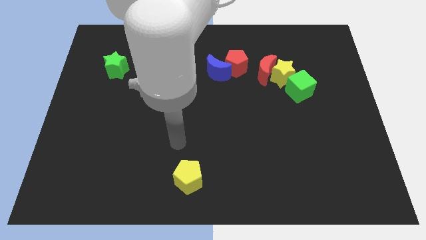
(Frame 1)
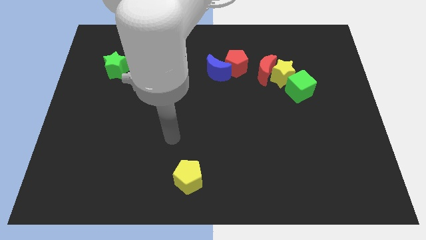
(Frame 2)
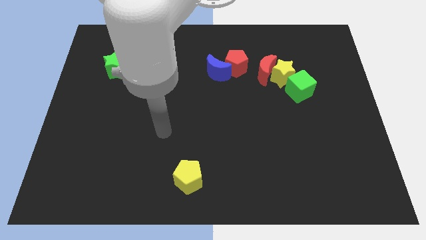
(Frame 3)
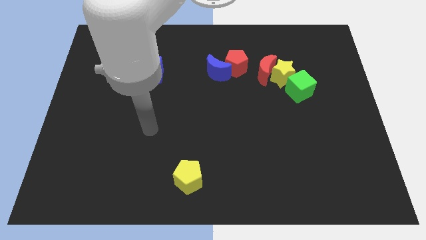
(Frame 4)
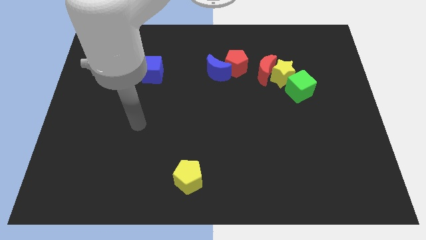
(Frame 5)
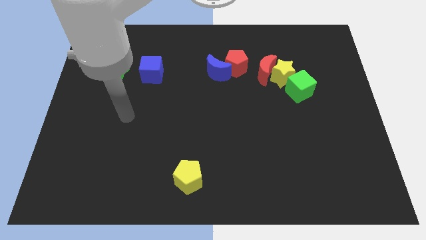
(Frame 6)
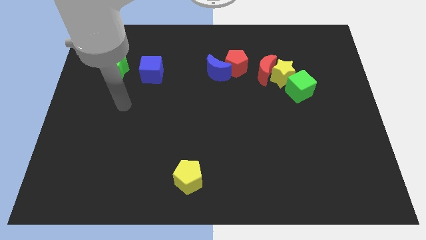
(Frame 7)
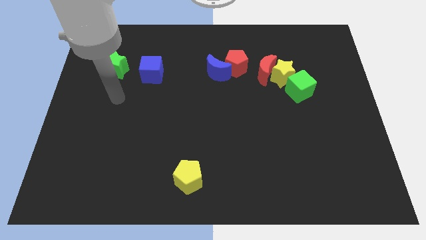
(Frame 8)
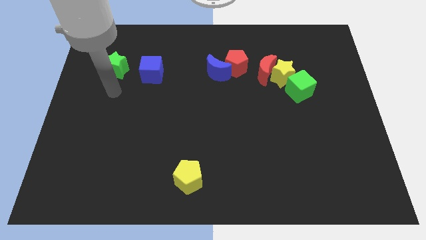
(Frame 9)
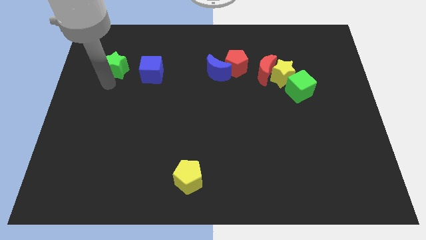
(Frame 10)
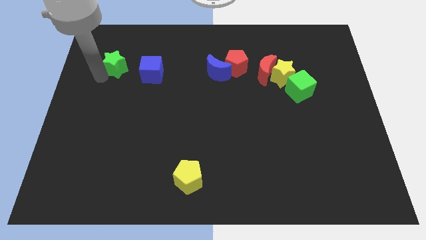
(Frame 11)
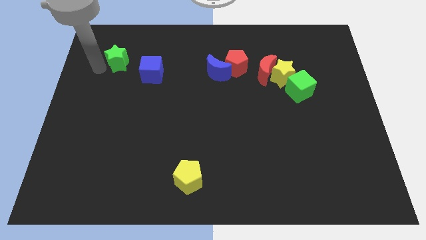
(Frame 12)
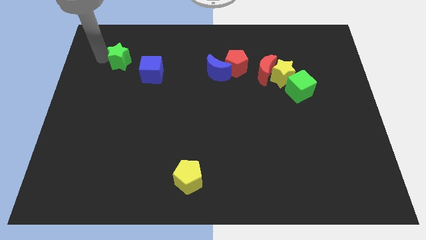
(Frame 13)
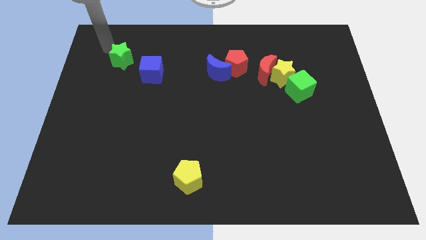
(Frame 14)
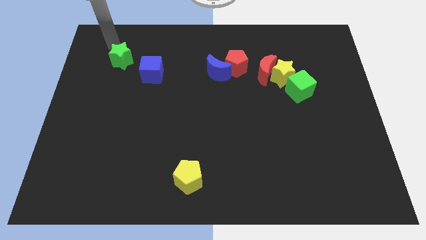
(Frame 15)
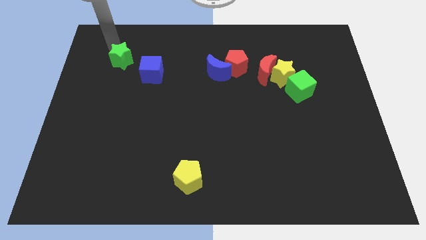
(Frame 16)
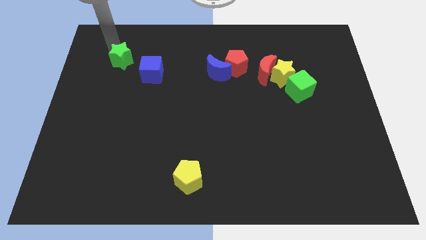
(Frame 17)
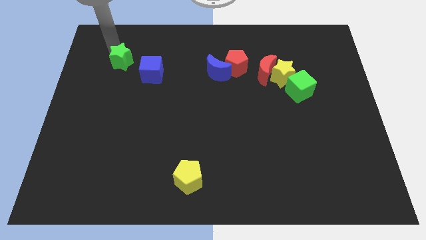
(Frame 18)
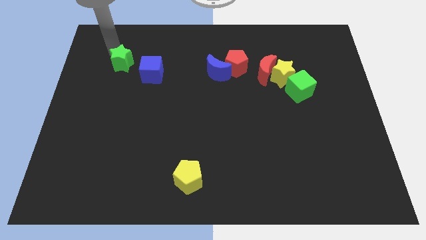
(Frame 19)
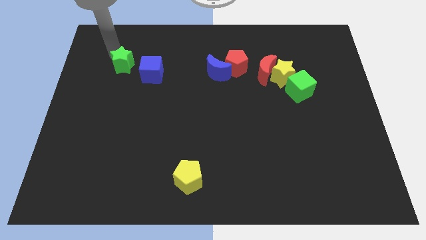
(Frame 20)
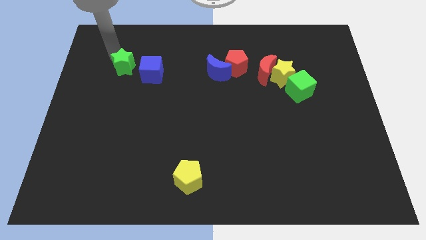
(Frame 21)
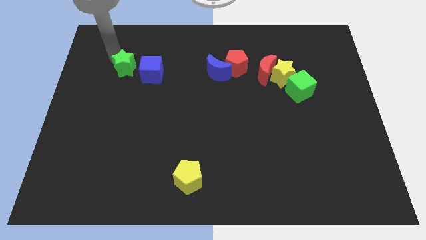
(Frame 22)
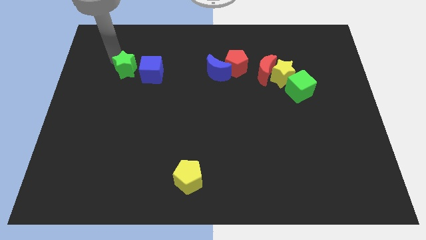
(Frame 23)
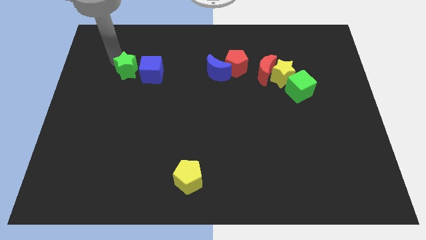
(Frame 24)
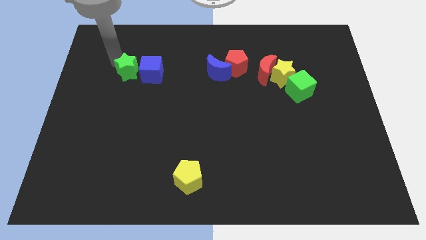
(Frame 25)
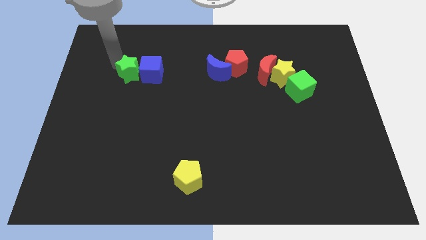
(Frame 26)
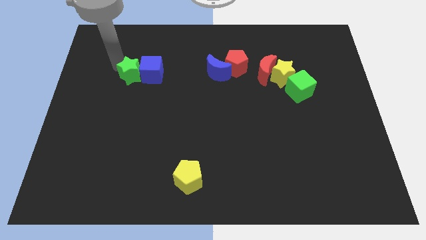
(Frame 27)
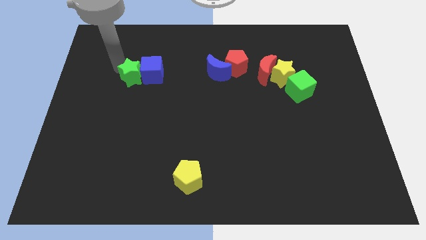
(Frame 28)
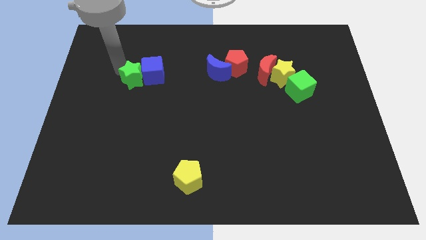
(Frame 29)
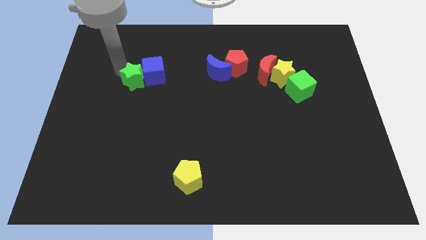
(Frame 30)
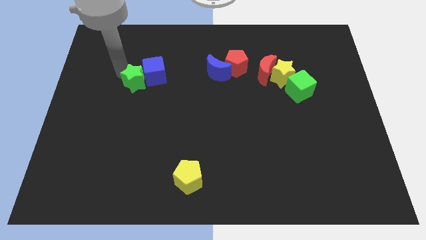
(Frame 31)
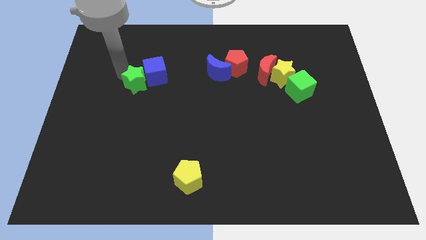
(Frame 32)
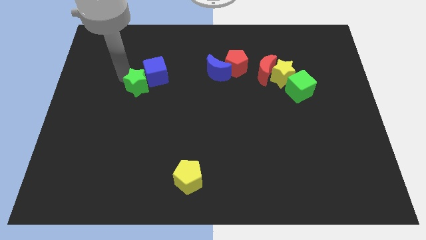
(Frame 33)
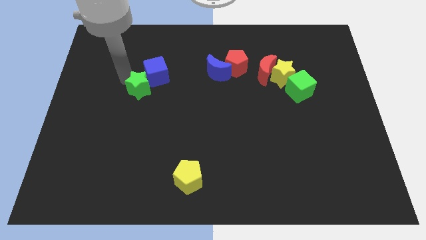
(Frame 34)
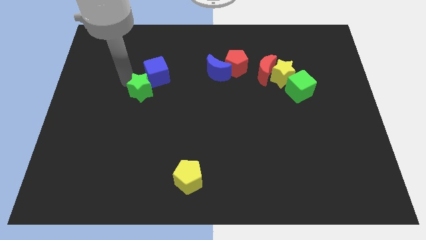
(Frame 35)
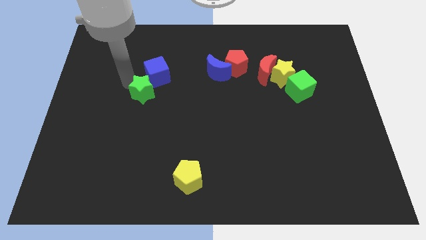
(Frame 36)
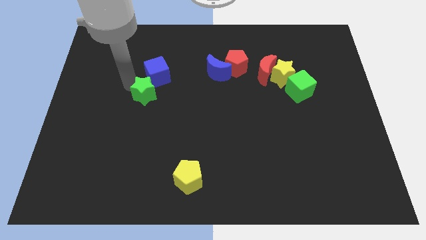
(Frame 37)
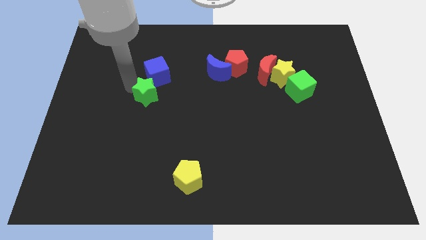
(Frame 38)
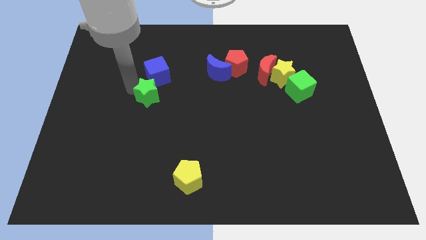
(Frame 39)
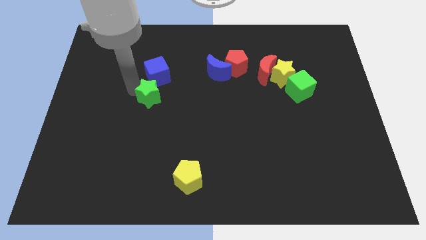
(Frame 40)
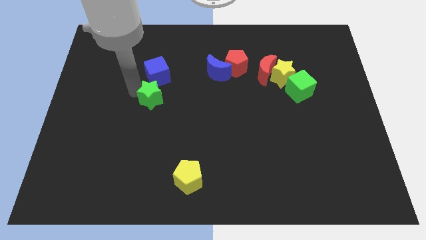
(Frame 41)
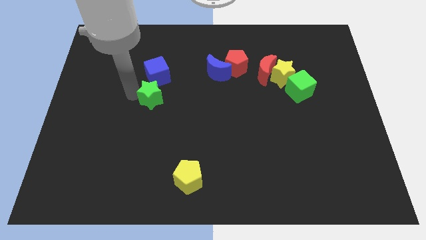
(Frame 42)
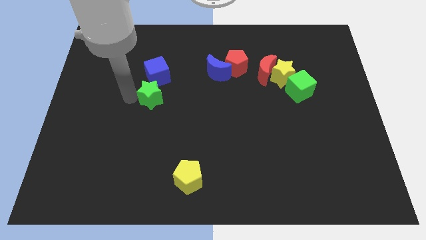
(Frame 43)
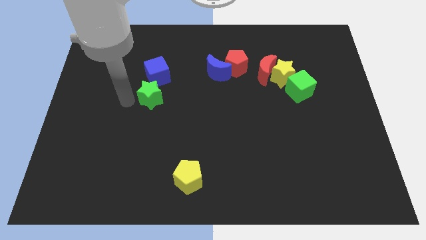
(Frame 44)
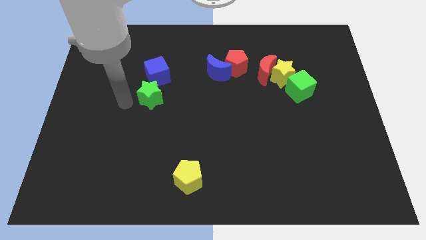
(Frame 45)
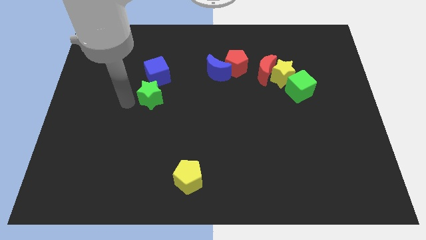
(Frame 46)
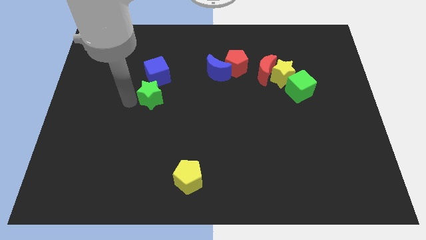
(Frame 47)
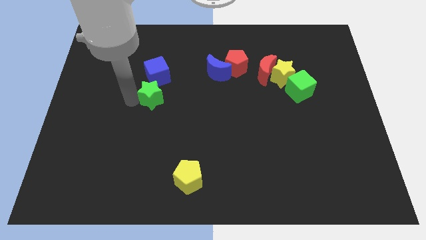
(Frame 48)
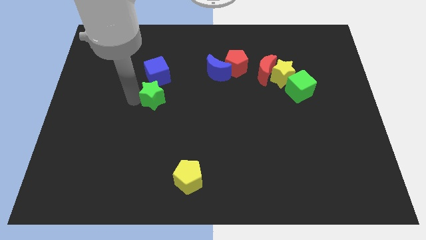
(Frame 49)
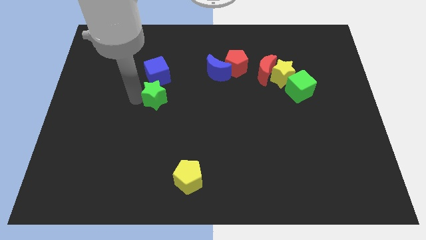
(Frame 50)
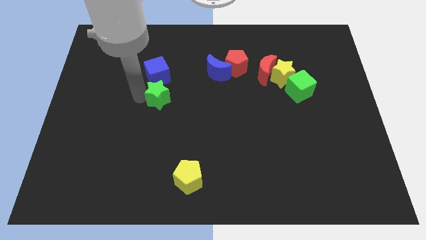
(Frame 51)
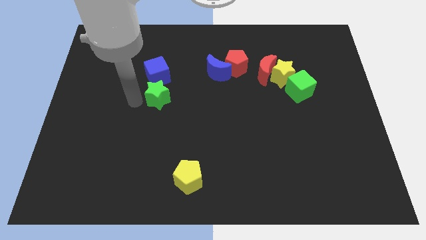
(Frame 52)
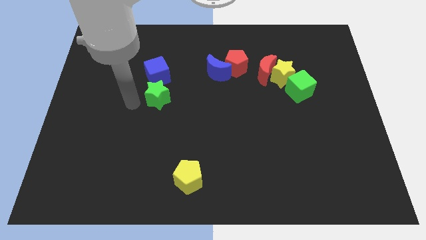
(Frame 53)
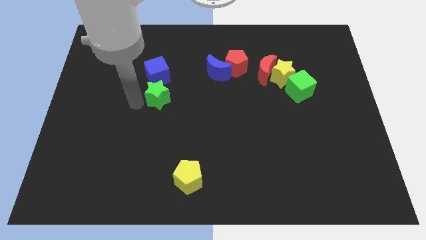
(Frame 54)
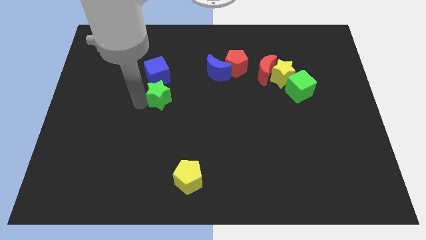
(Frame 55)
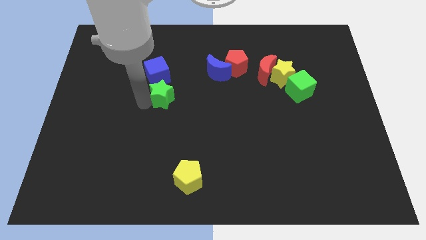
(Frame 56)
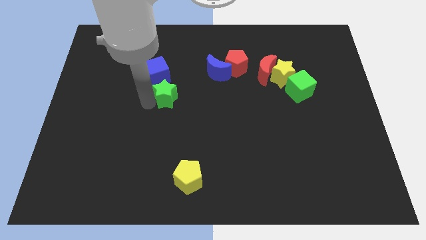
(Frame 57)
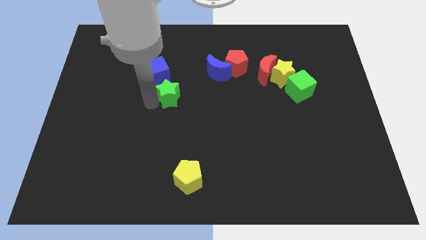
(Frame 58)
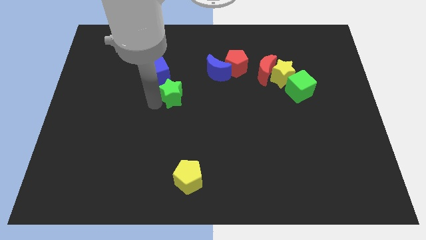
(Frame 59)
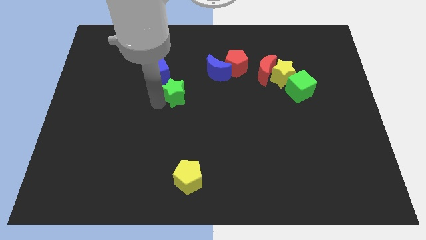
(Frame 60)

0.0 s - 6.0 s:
move the green star to the bottom left side of the blue moon

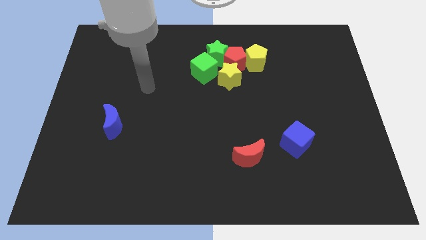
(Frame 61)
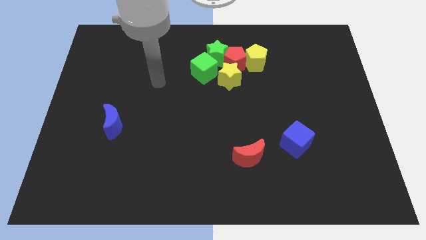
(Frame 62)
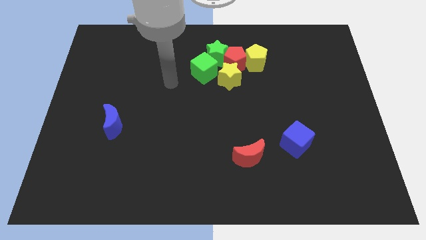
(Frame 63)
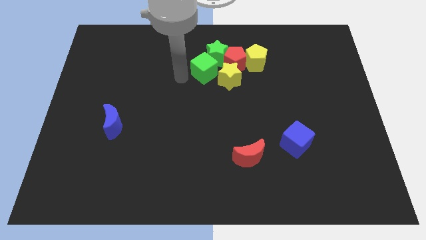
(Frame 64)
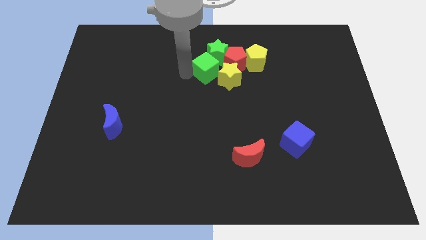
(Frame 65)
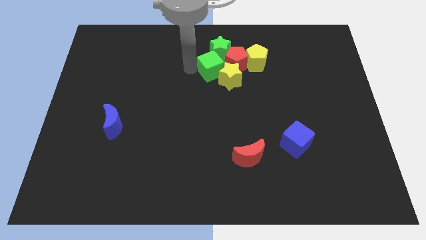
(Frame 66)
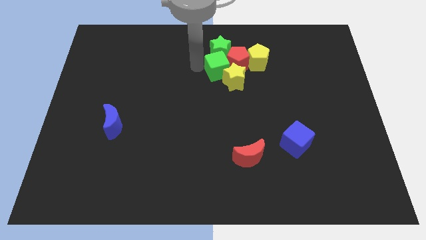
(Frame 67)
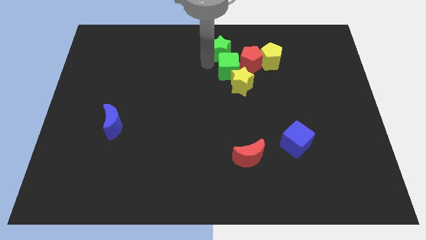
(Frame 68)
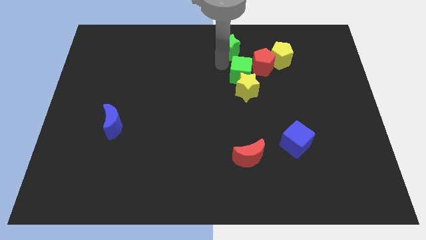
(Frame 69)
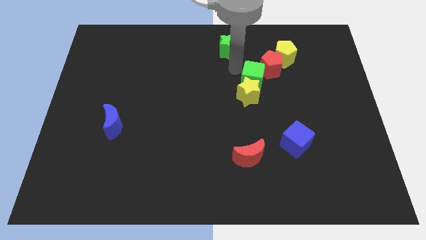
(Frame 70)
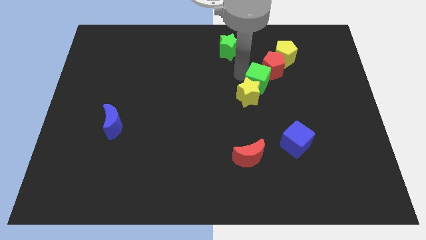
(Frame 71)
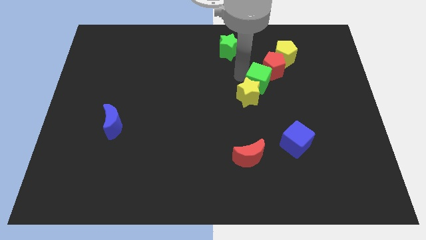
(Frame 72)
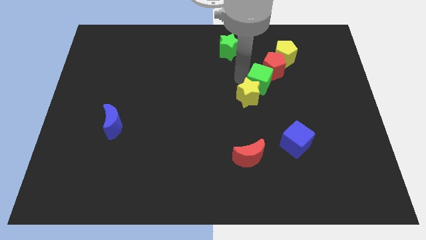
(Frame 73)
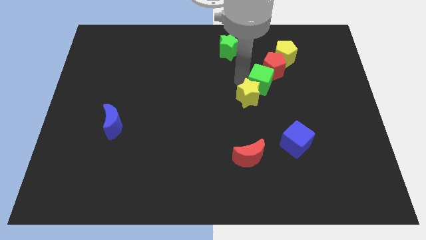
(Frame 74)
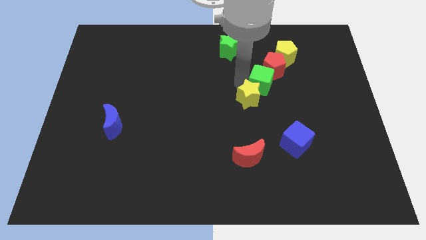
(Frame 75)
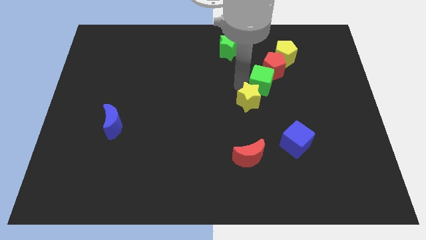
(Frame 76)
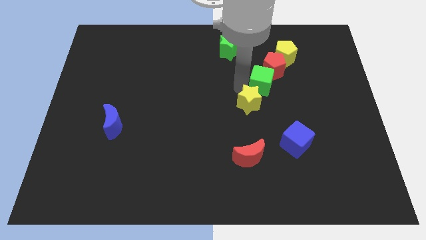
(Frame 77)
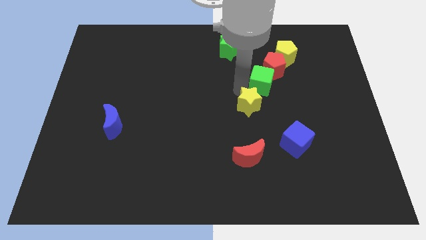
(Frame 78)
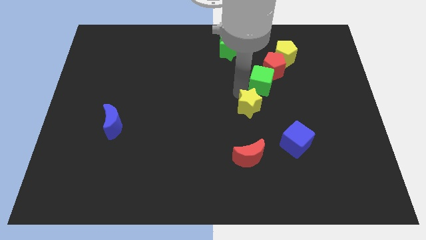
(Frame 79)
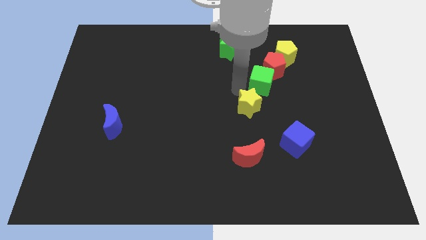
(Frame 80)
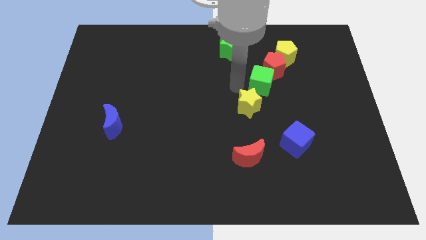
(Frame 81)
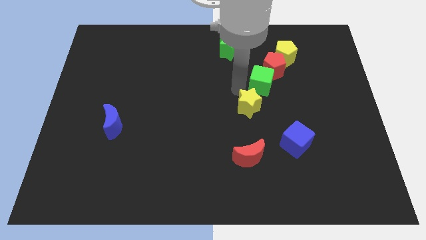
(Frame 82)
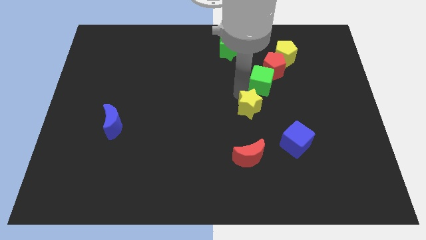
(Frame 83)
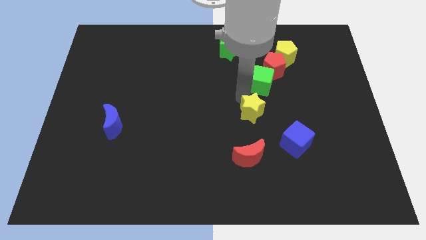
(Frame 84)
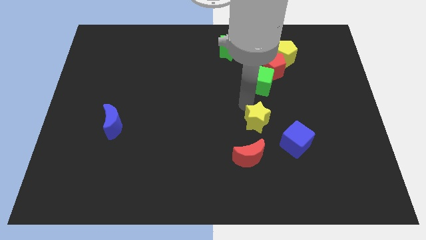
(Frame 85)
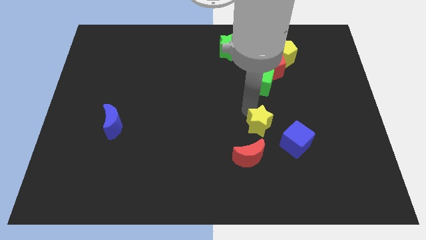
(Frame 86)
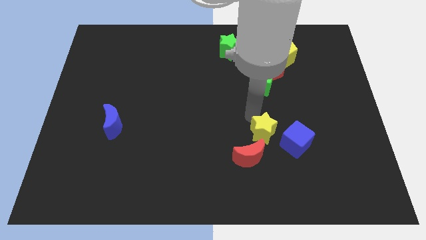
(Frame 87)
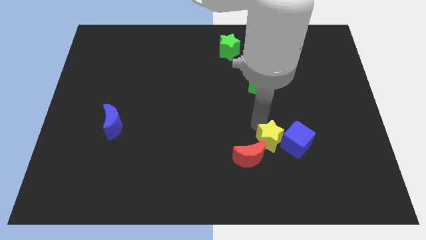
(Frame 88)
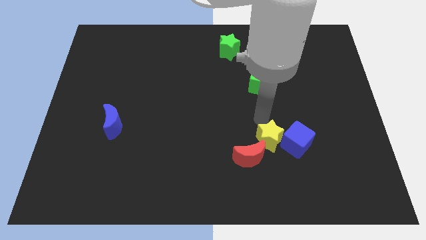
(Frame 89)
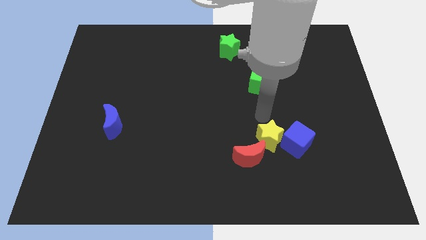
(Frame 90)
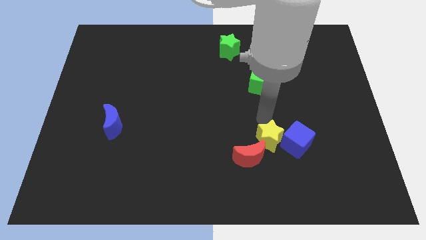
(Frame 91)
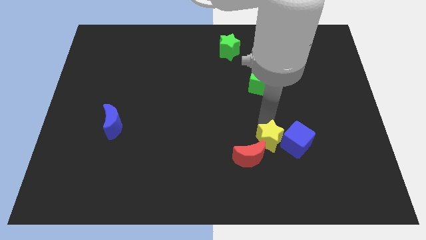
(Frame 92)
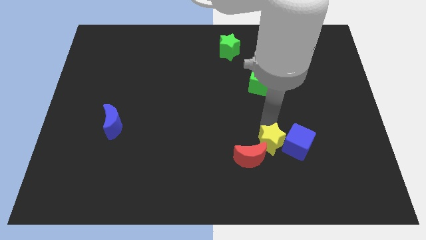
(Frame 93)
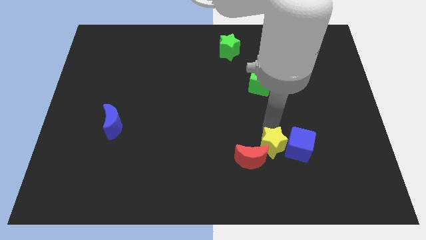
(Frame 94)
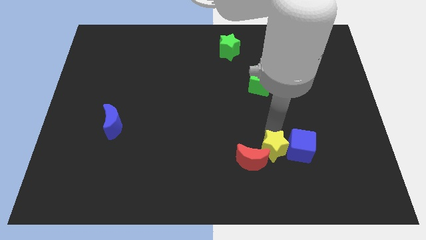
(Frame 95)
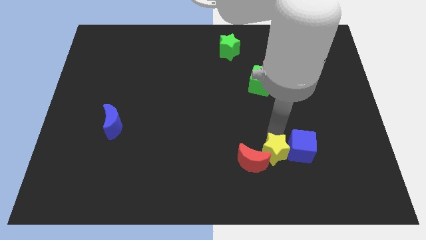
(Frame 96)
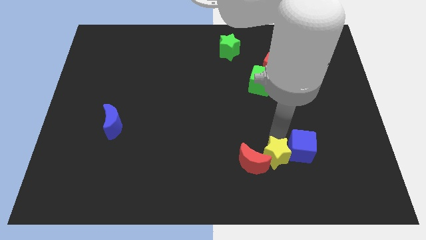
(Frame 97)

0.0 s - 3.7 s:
put the yellow star to the bottom right of the red moon
